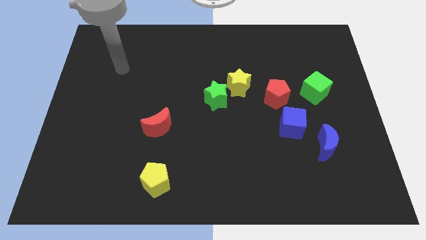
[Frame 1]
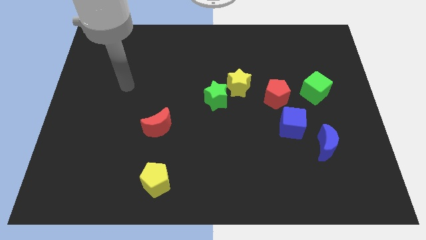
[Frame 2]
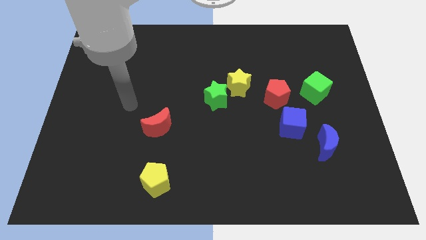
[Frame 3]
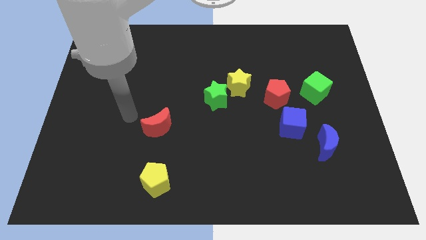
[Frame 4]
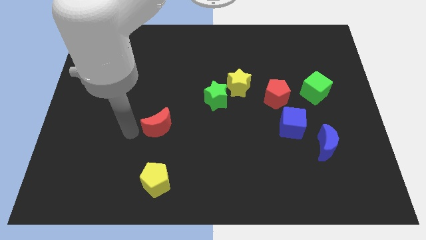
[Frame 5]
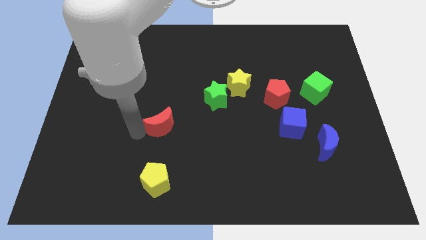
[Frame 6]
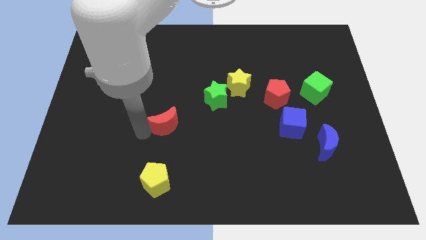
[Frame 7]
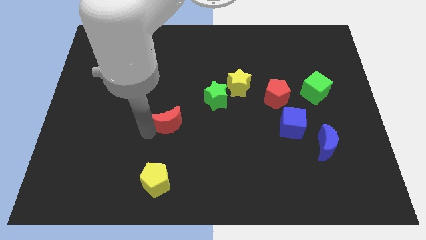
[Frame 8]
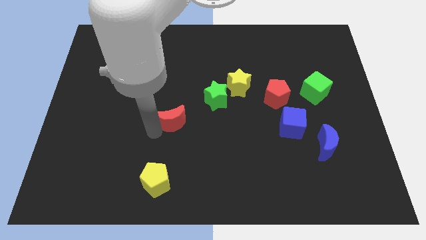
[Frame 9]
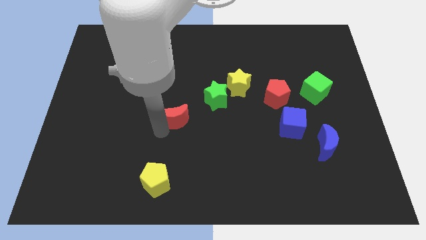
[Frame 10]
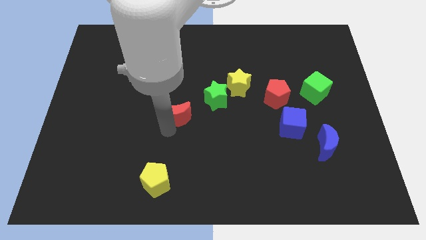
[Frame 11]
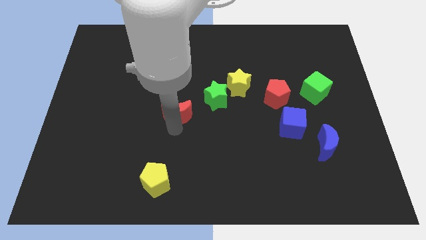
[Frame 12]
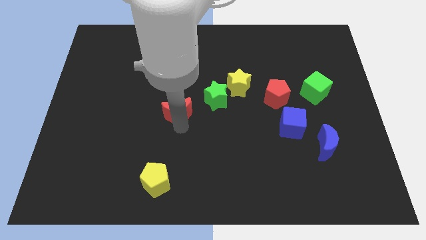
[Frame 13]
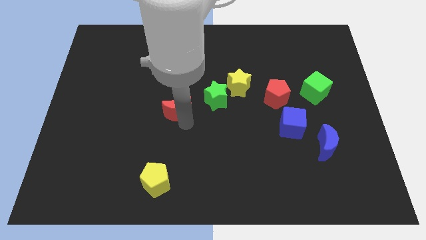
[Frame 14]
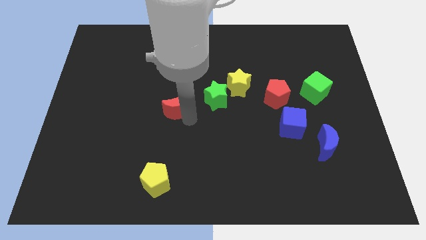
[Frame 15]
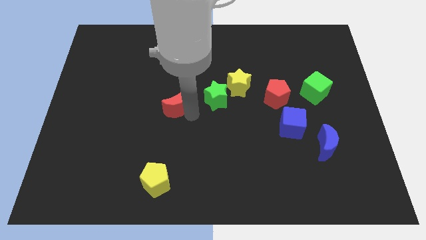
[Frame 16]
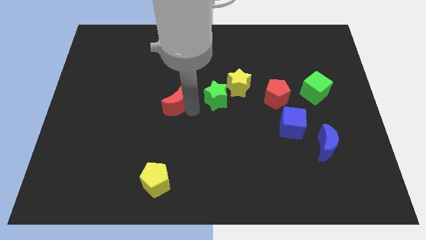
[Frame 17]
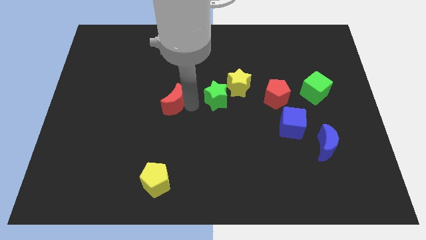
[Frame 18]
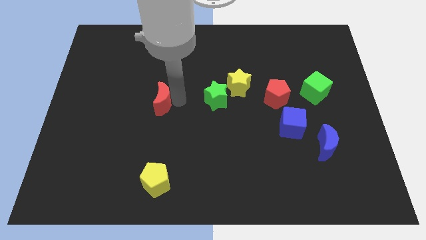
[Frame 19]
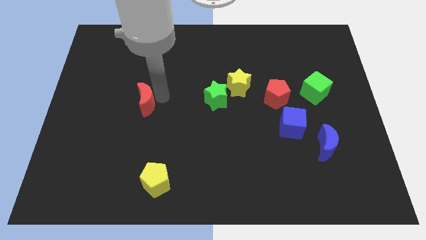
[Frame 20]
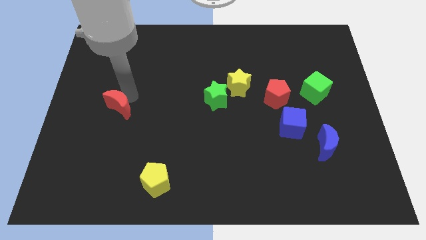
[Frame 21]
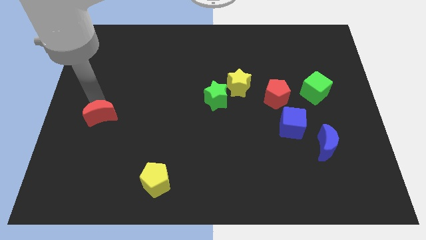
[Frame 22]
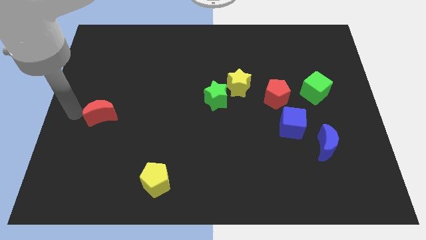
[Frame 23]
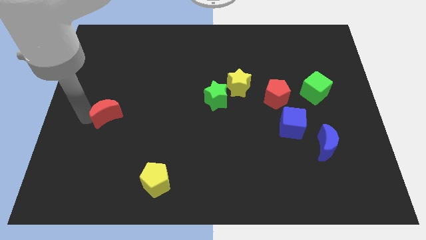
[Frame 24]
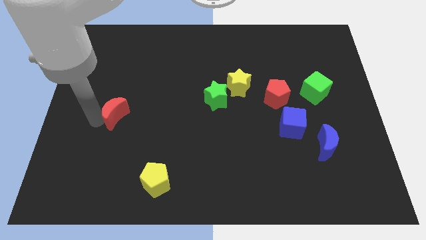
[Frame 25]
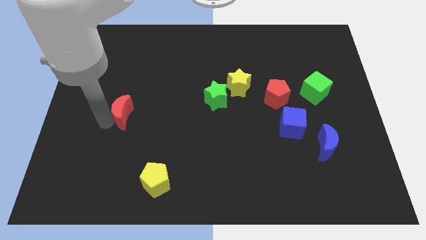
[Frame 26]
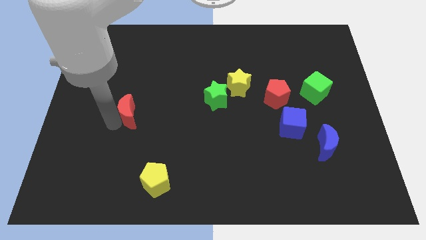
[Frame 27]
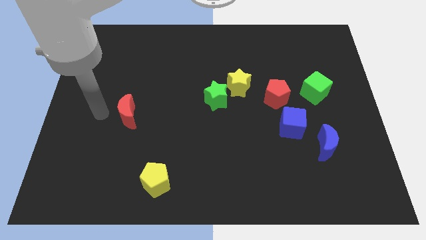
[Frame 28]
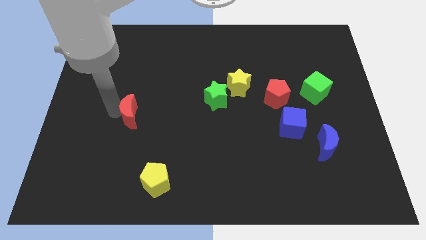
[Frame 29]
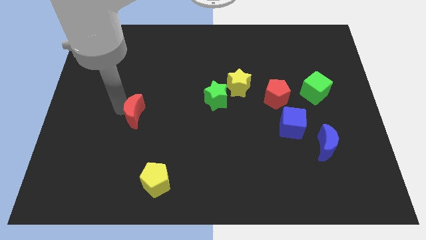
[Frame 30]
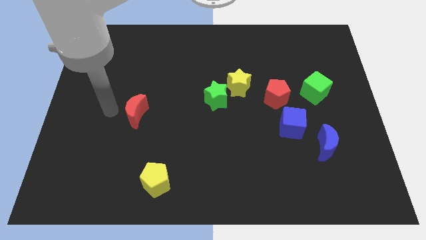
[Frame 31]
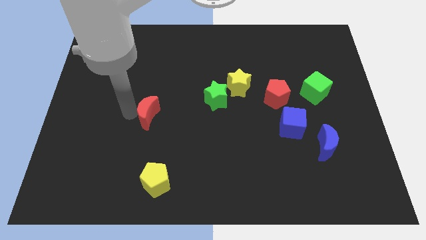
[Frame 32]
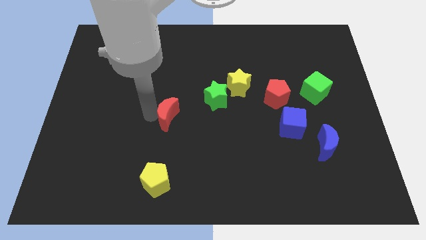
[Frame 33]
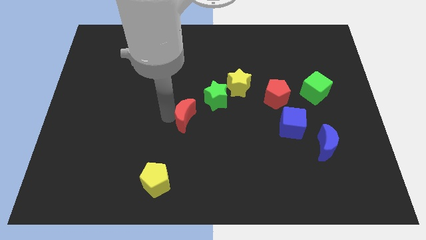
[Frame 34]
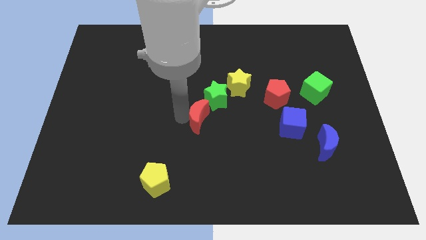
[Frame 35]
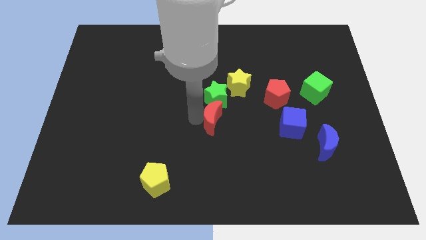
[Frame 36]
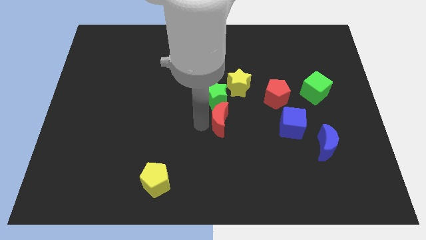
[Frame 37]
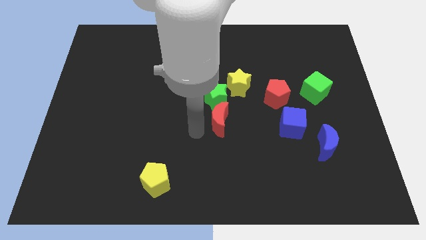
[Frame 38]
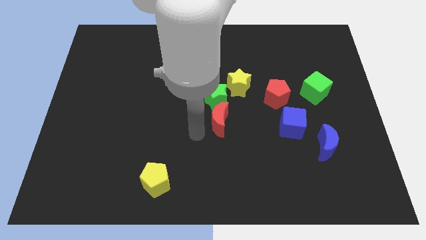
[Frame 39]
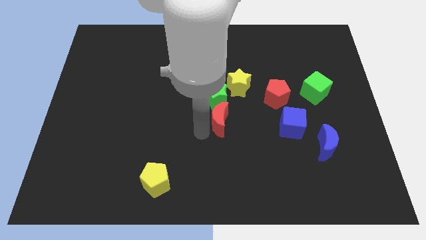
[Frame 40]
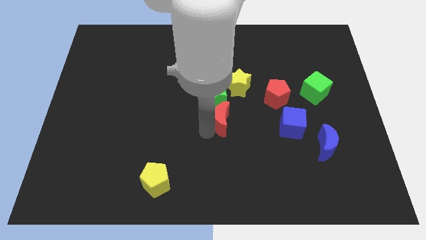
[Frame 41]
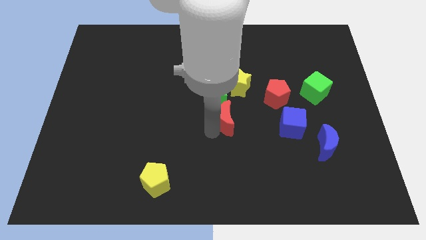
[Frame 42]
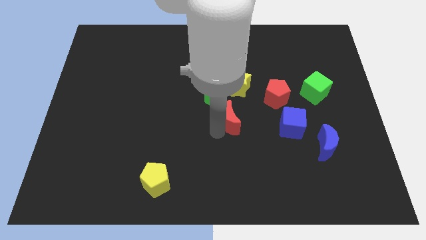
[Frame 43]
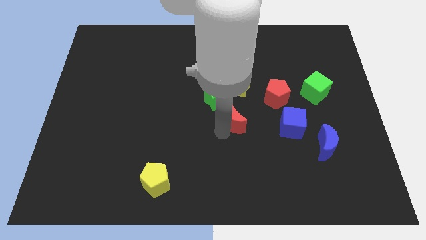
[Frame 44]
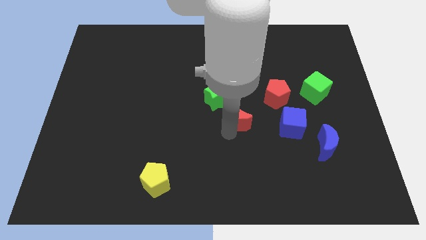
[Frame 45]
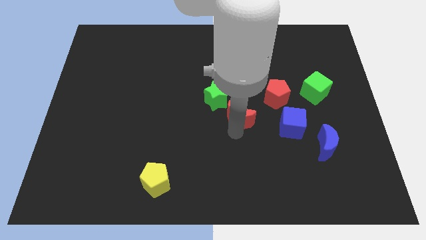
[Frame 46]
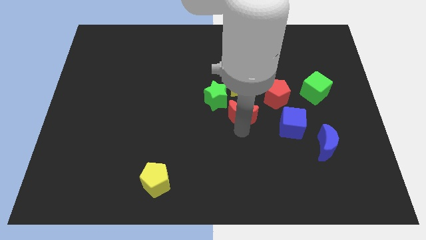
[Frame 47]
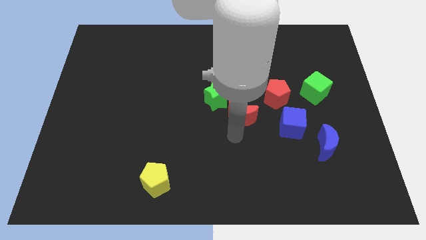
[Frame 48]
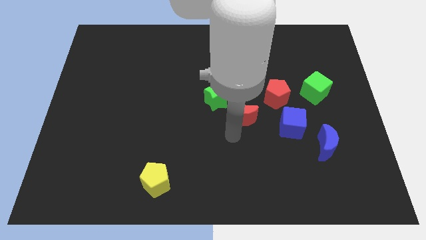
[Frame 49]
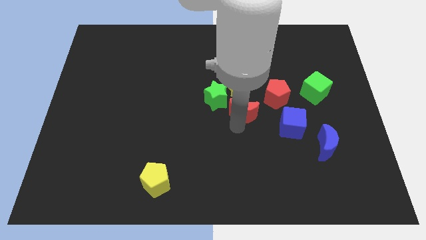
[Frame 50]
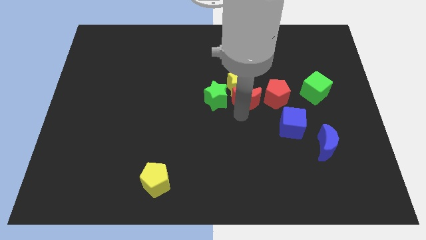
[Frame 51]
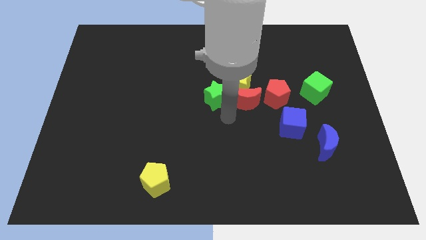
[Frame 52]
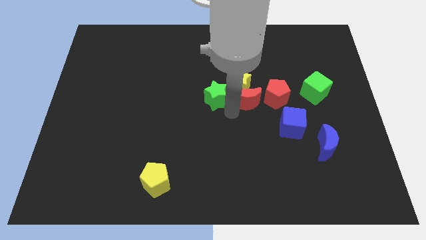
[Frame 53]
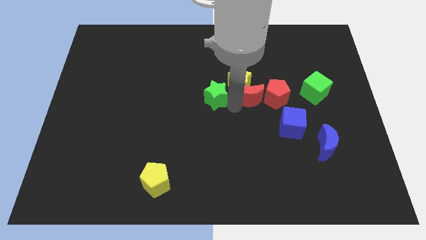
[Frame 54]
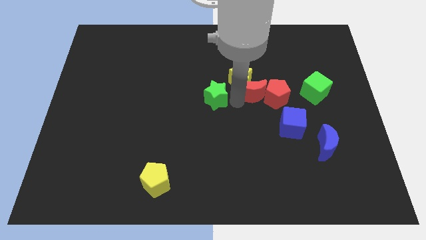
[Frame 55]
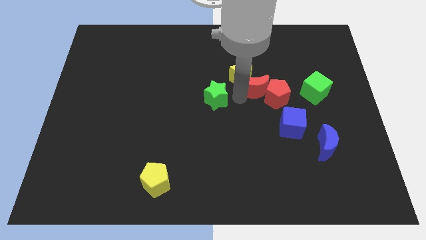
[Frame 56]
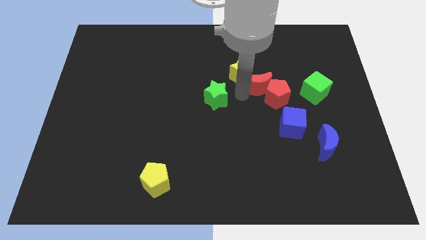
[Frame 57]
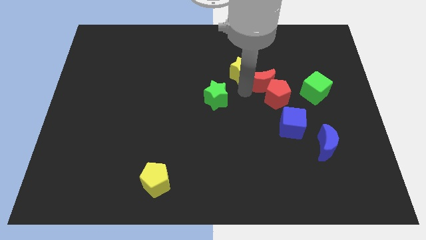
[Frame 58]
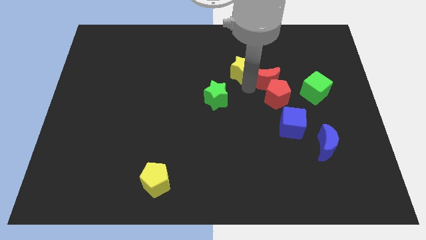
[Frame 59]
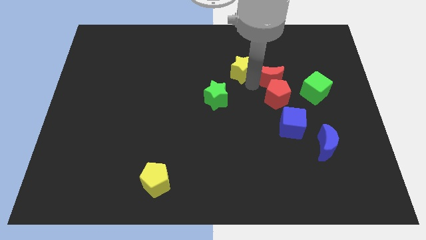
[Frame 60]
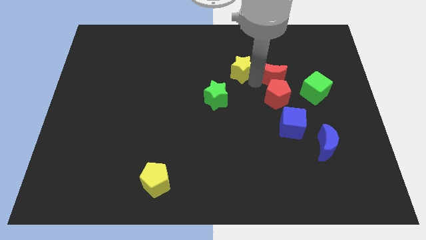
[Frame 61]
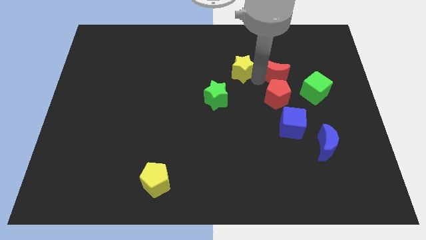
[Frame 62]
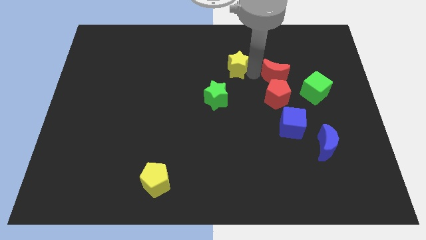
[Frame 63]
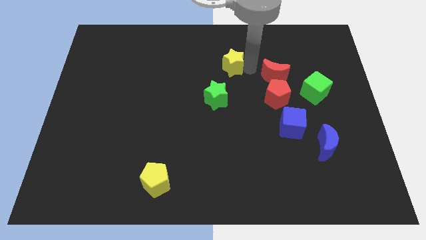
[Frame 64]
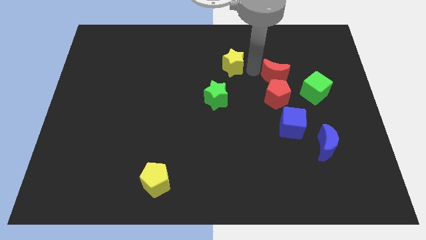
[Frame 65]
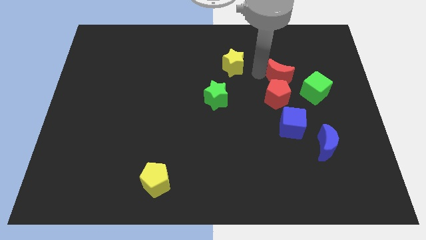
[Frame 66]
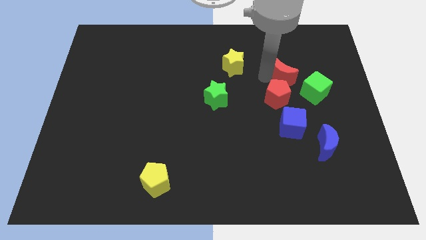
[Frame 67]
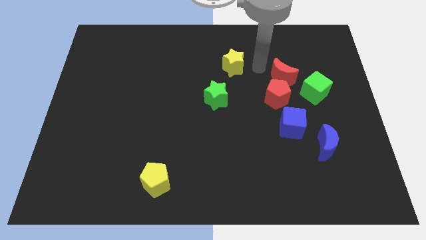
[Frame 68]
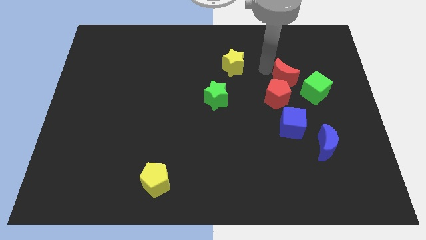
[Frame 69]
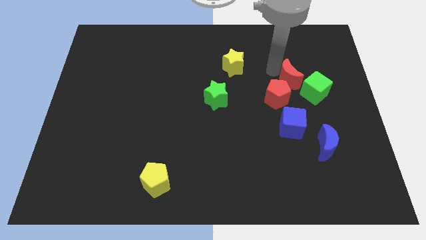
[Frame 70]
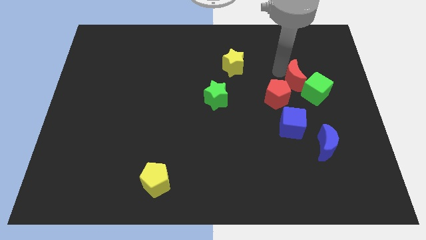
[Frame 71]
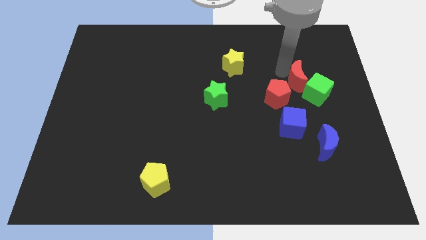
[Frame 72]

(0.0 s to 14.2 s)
move the red moon next to the green cube
